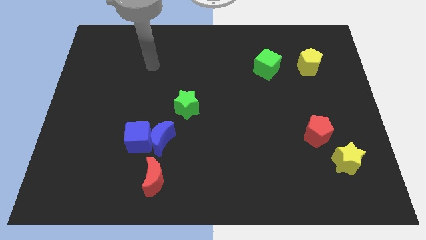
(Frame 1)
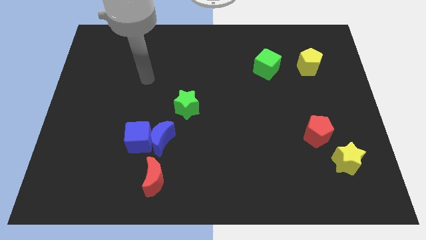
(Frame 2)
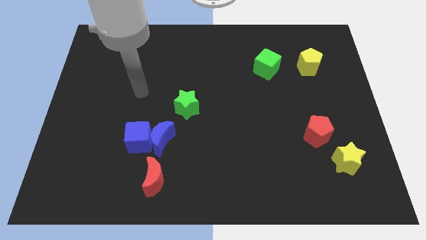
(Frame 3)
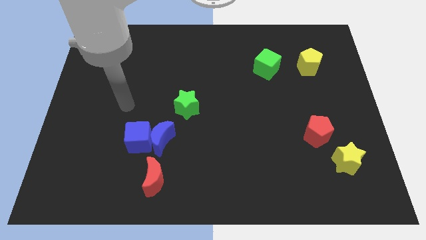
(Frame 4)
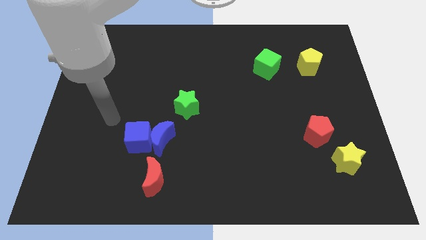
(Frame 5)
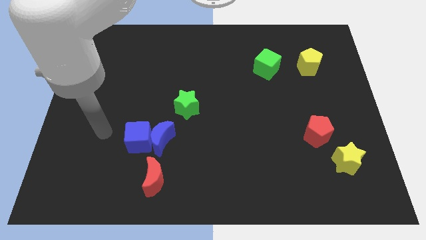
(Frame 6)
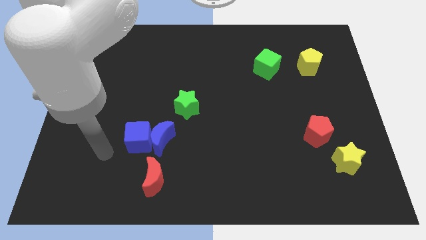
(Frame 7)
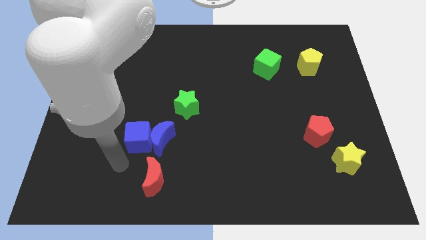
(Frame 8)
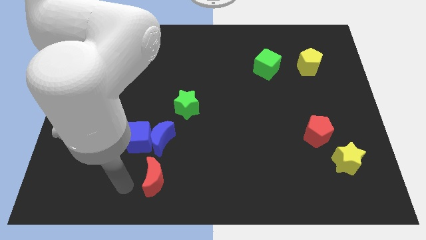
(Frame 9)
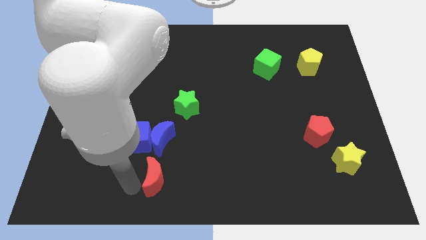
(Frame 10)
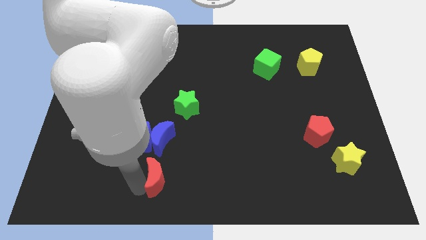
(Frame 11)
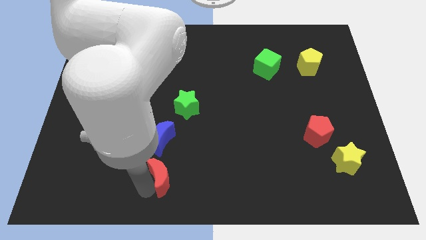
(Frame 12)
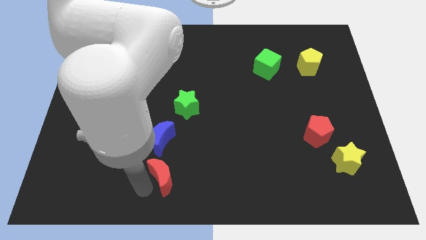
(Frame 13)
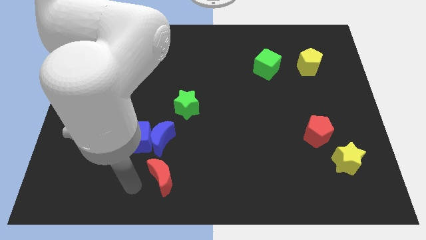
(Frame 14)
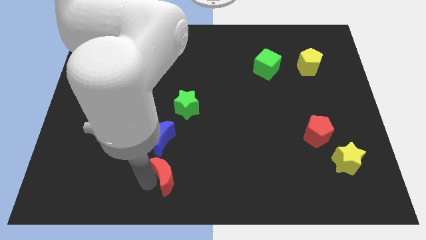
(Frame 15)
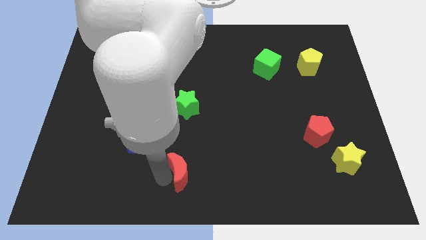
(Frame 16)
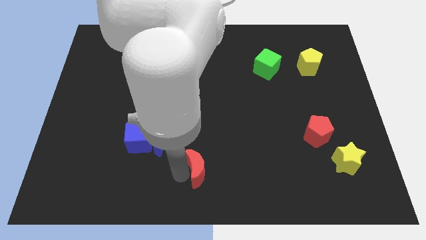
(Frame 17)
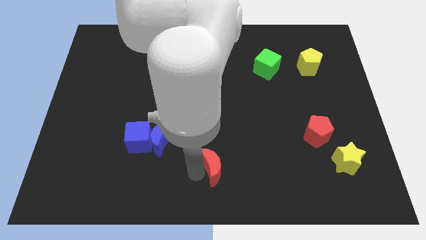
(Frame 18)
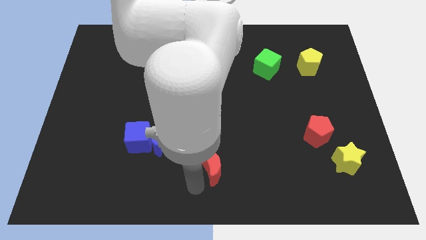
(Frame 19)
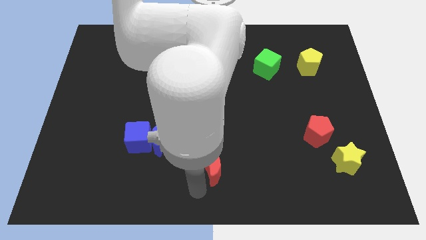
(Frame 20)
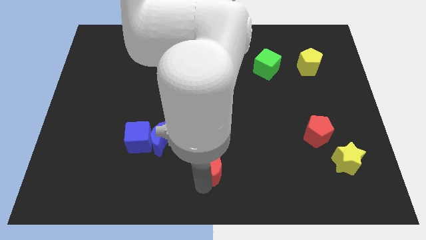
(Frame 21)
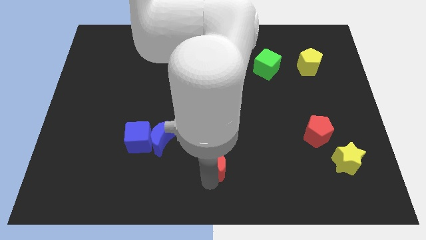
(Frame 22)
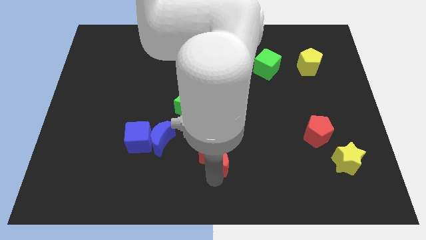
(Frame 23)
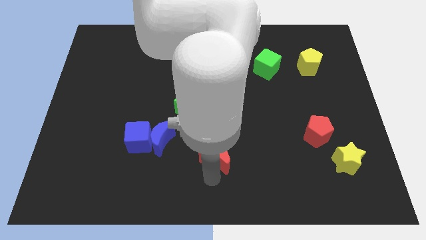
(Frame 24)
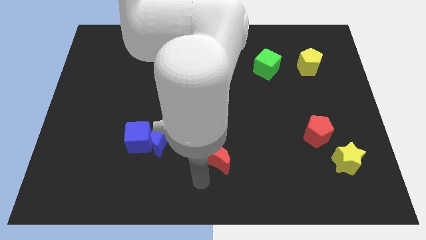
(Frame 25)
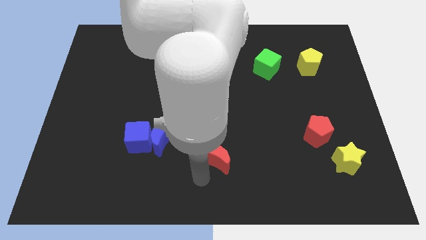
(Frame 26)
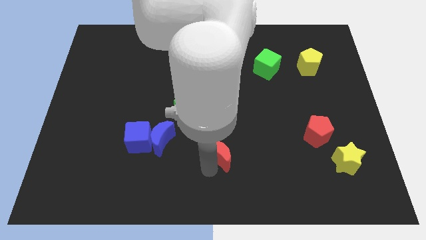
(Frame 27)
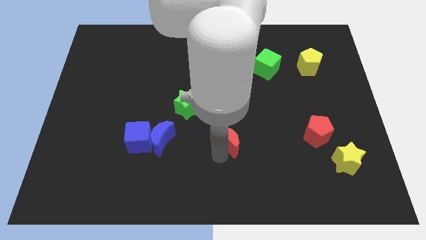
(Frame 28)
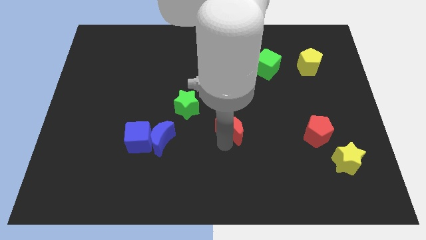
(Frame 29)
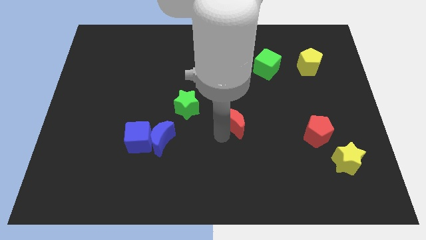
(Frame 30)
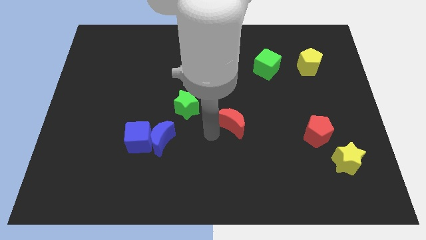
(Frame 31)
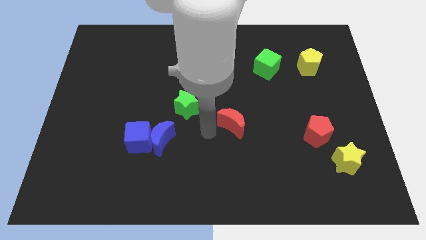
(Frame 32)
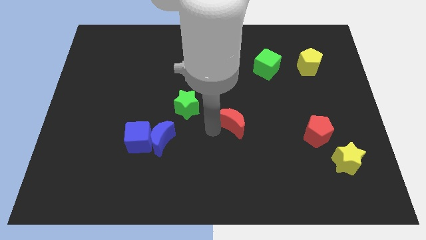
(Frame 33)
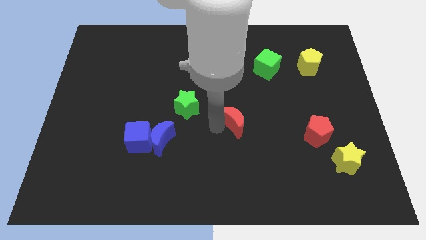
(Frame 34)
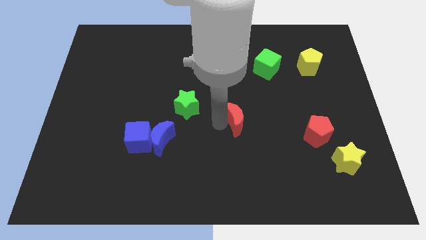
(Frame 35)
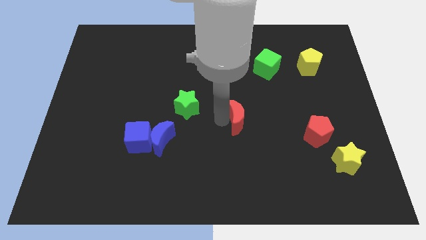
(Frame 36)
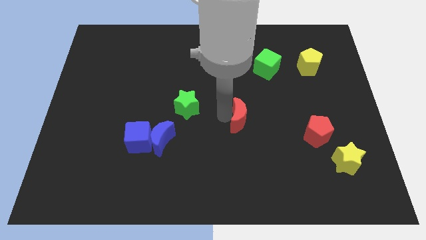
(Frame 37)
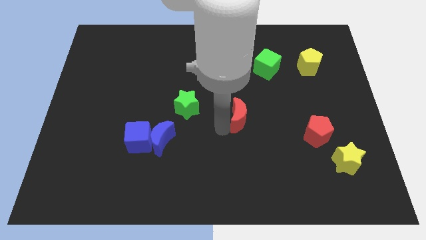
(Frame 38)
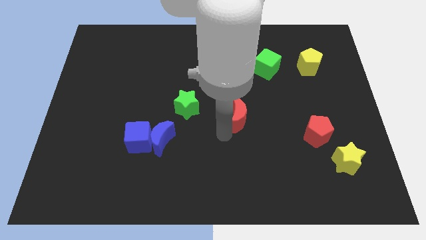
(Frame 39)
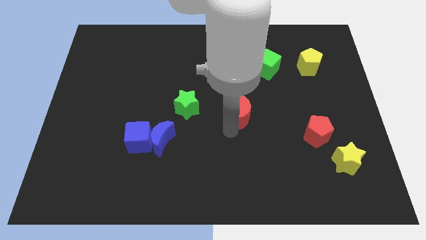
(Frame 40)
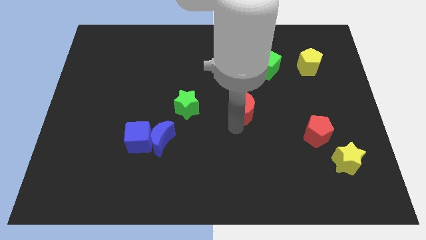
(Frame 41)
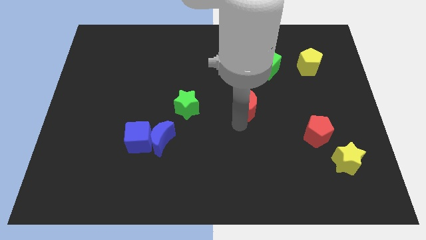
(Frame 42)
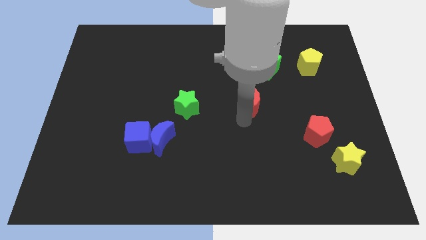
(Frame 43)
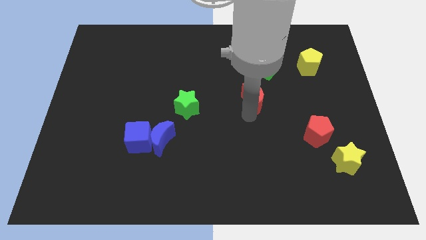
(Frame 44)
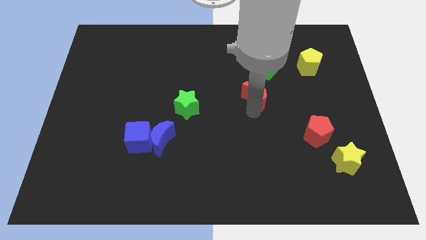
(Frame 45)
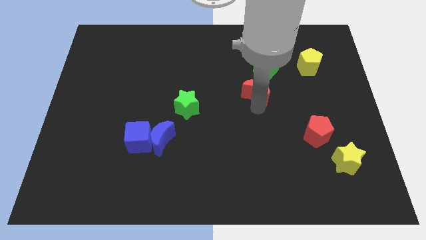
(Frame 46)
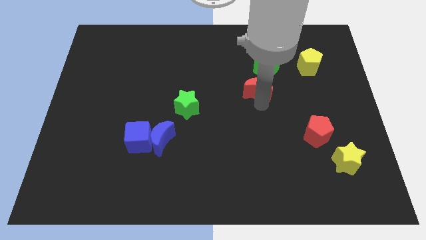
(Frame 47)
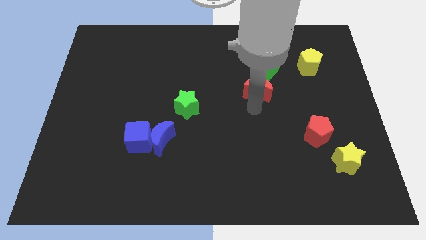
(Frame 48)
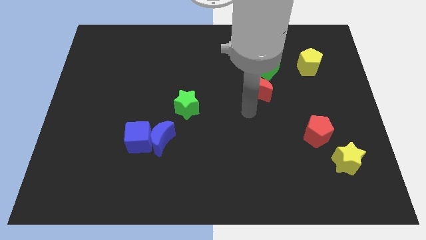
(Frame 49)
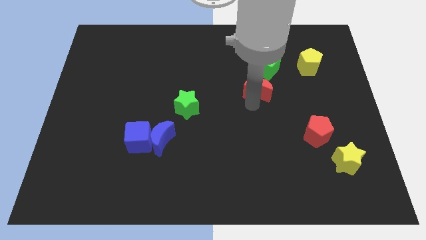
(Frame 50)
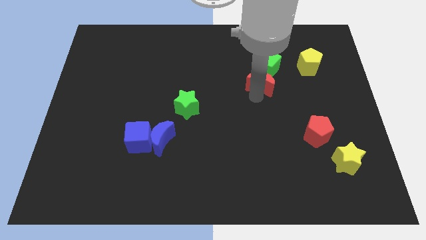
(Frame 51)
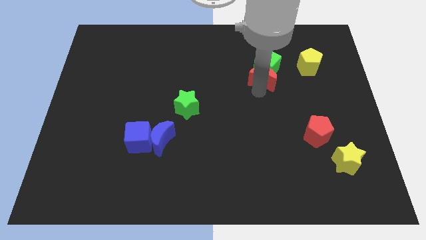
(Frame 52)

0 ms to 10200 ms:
push the red moon close to the green cube

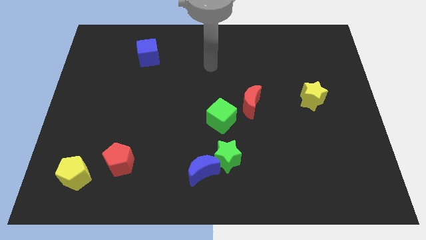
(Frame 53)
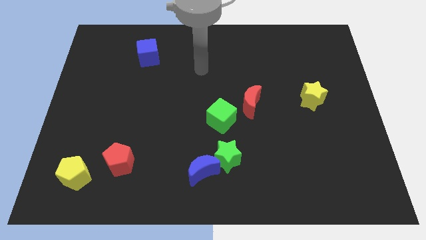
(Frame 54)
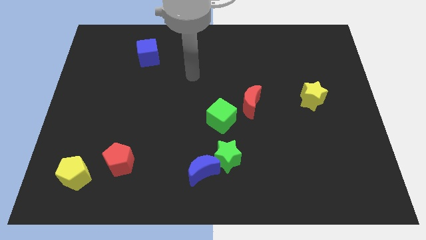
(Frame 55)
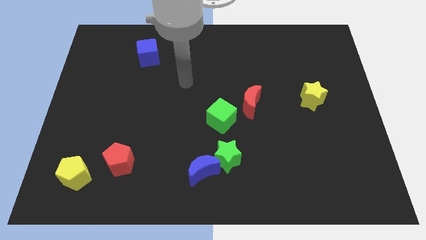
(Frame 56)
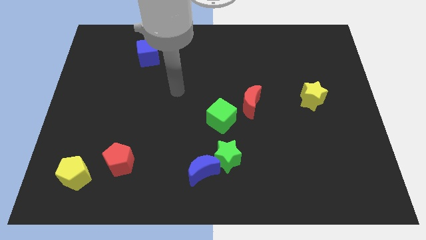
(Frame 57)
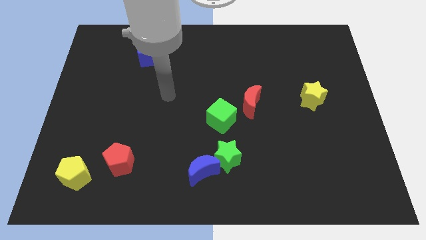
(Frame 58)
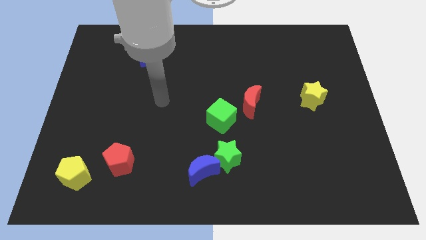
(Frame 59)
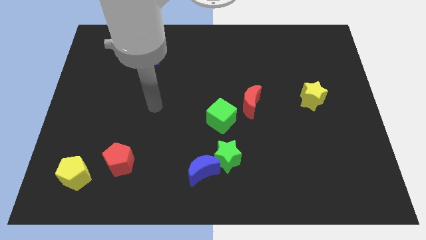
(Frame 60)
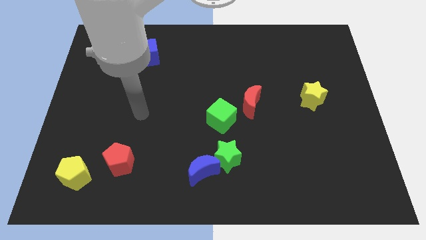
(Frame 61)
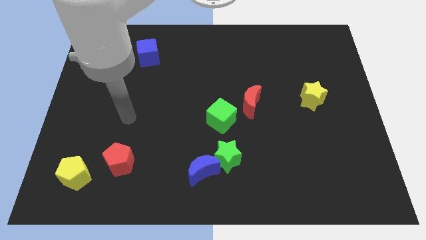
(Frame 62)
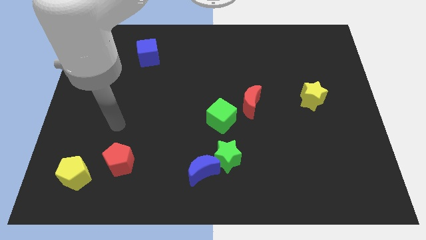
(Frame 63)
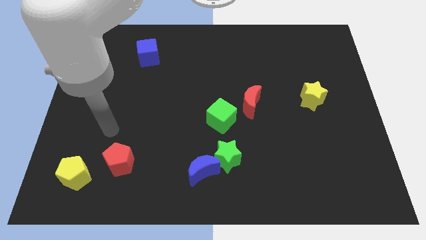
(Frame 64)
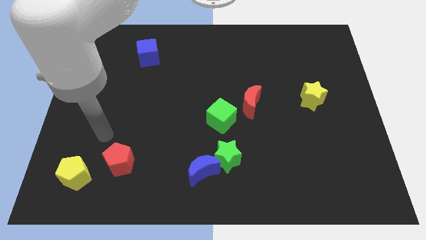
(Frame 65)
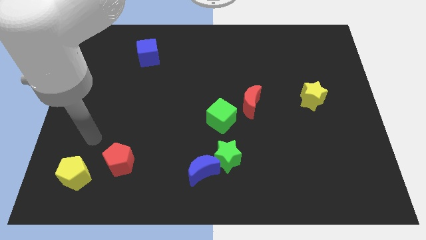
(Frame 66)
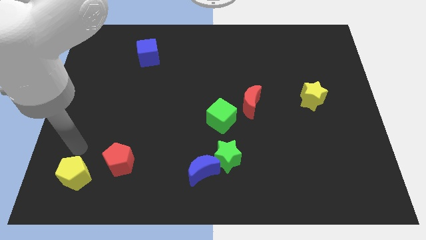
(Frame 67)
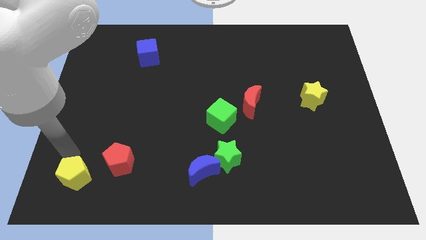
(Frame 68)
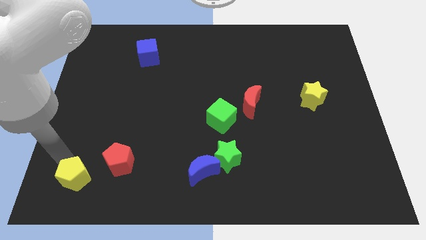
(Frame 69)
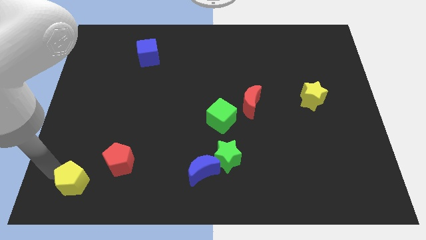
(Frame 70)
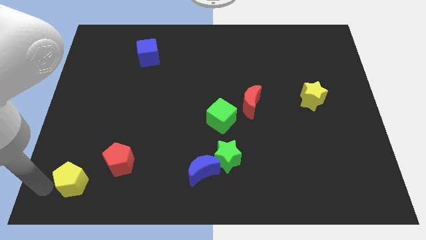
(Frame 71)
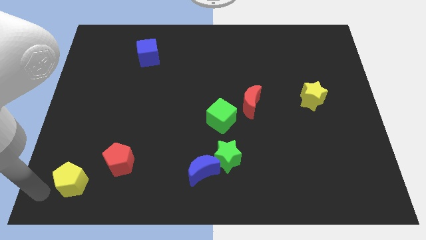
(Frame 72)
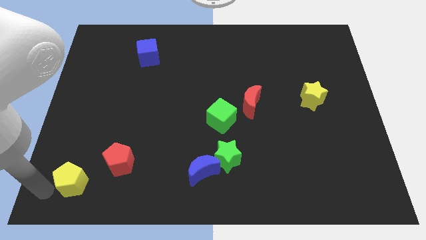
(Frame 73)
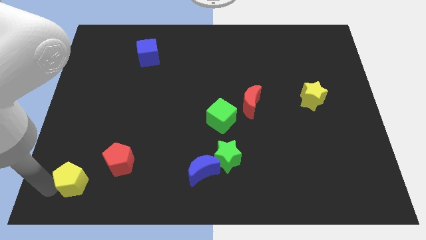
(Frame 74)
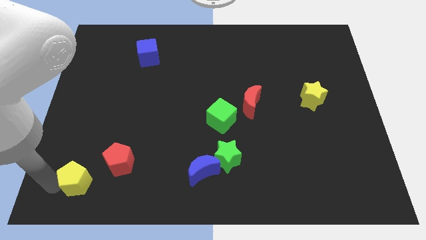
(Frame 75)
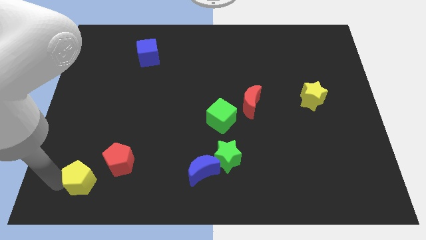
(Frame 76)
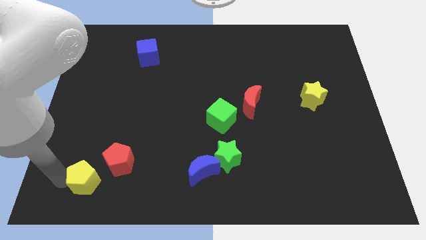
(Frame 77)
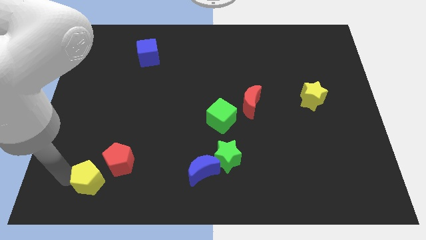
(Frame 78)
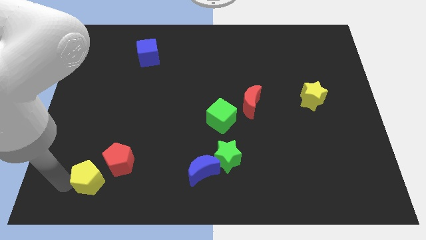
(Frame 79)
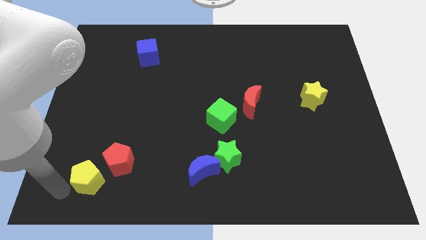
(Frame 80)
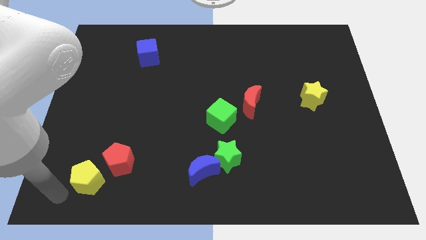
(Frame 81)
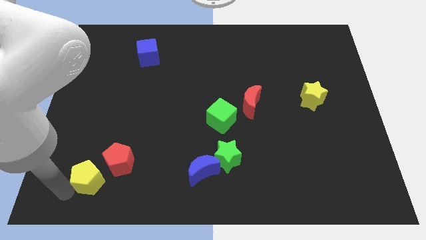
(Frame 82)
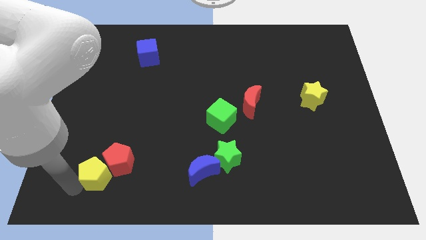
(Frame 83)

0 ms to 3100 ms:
put the yellow pentagon to the red pentagon
